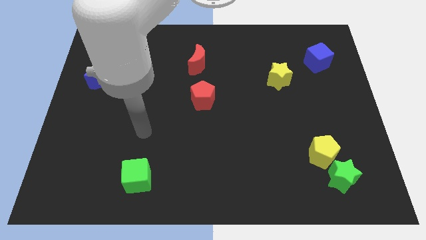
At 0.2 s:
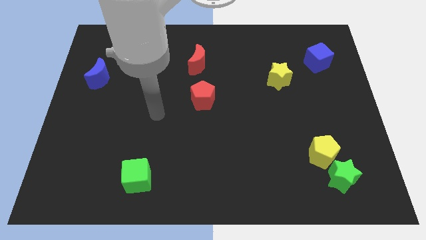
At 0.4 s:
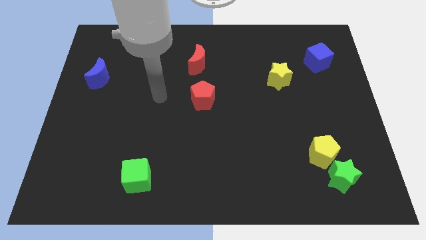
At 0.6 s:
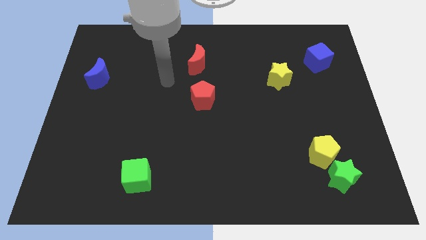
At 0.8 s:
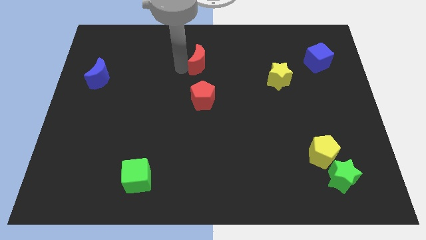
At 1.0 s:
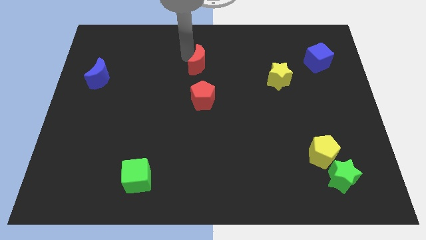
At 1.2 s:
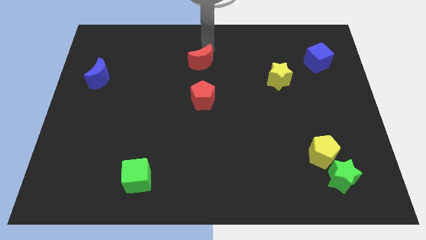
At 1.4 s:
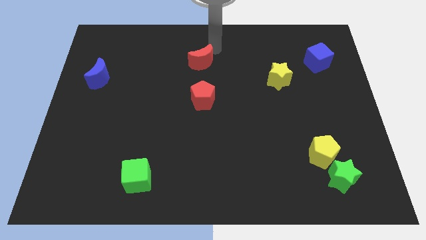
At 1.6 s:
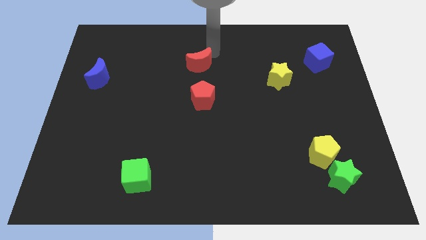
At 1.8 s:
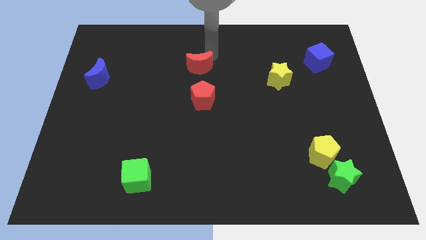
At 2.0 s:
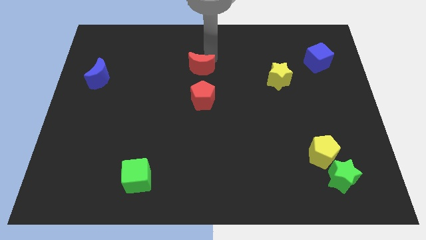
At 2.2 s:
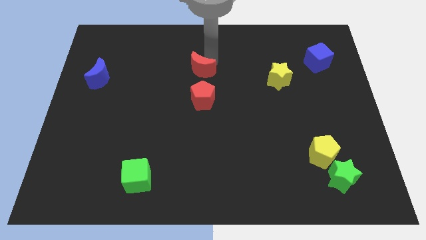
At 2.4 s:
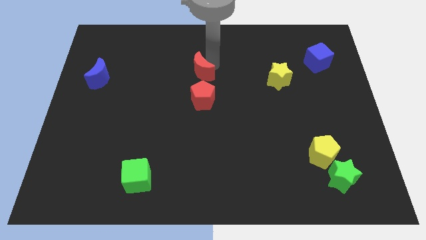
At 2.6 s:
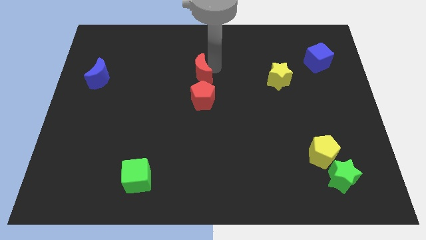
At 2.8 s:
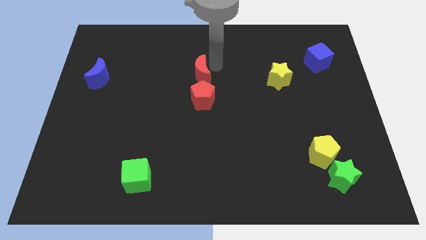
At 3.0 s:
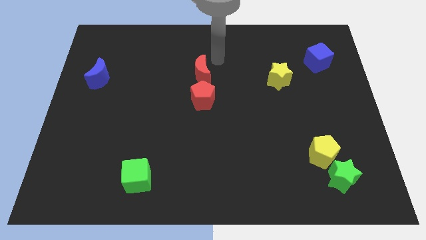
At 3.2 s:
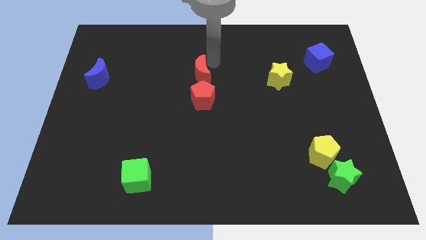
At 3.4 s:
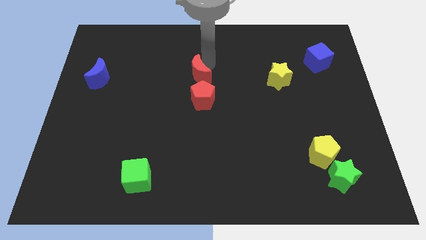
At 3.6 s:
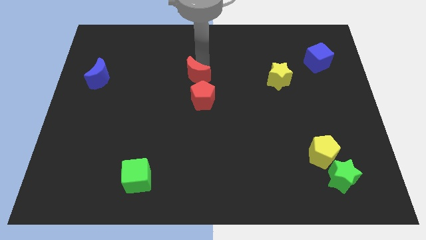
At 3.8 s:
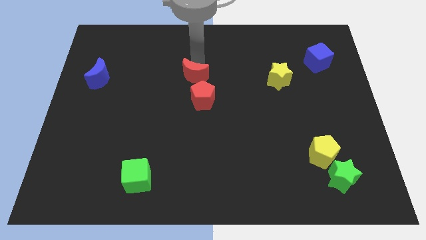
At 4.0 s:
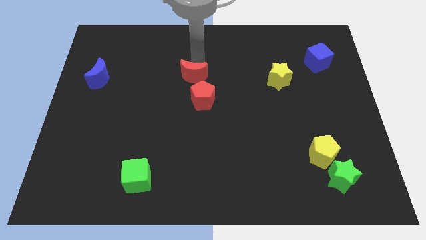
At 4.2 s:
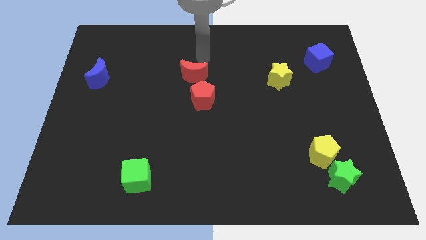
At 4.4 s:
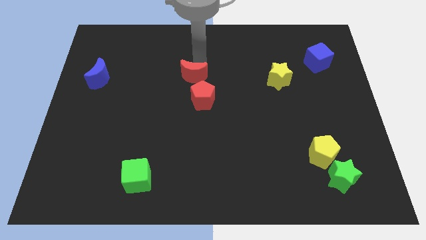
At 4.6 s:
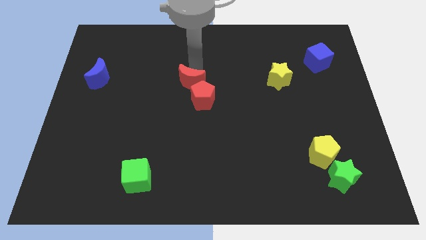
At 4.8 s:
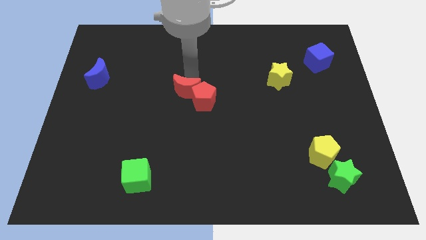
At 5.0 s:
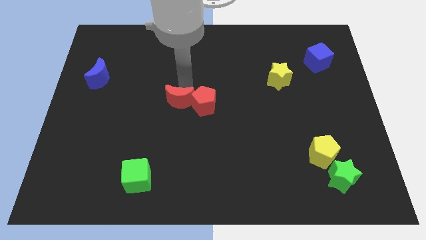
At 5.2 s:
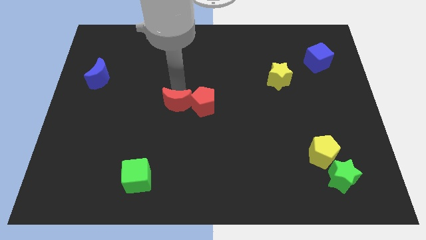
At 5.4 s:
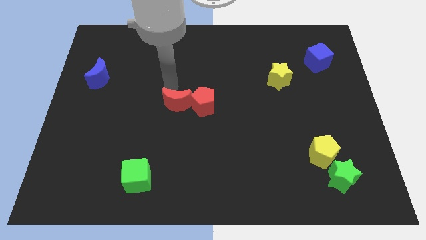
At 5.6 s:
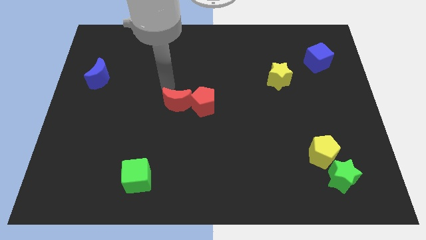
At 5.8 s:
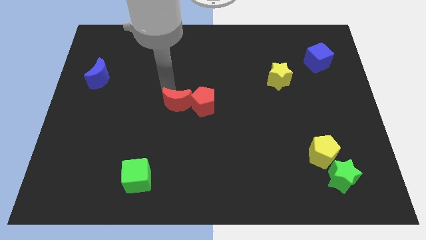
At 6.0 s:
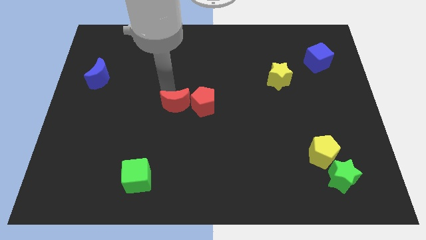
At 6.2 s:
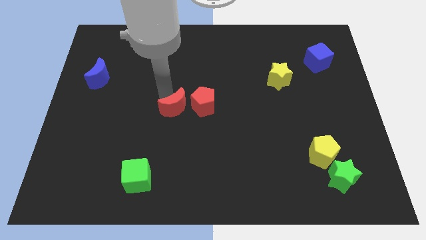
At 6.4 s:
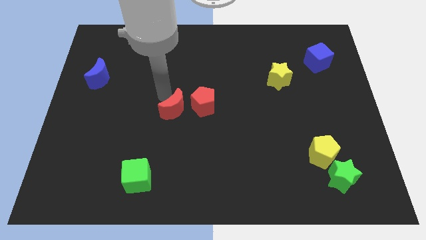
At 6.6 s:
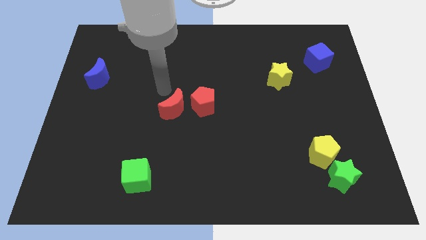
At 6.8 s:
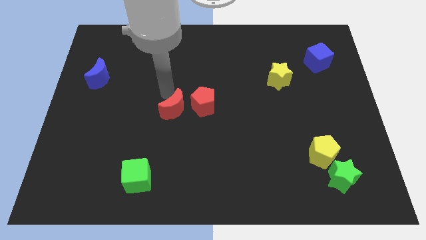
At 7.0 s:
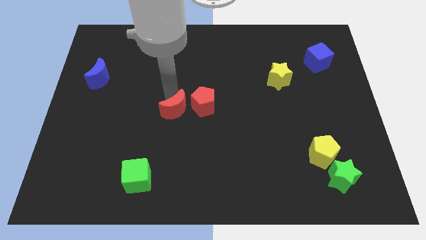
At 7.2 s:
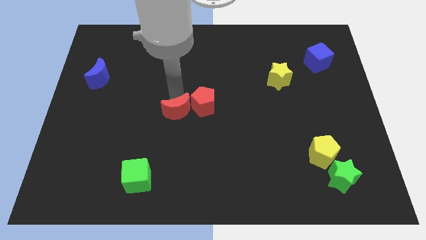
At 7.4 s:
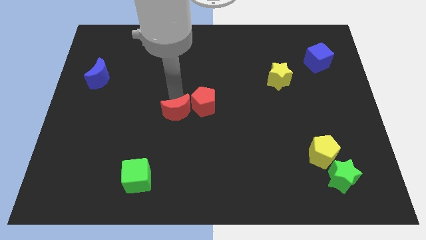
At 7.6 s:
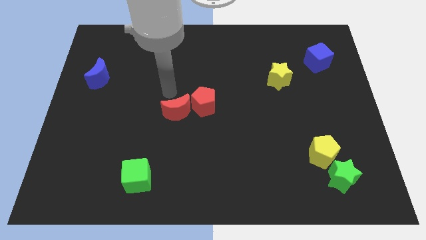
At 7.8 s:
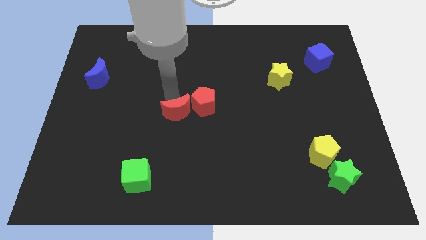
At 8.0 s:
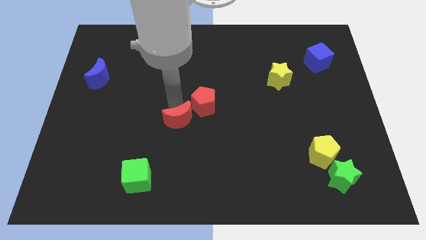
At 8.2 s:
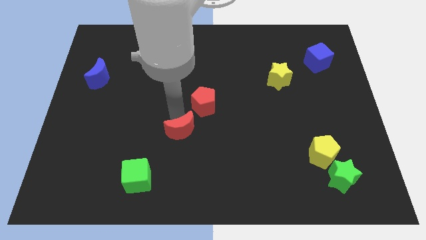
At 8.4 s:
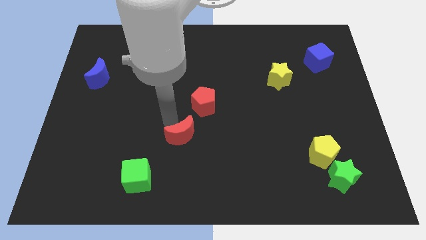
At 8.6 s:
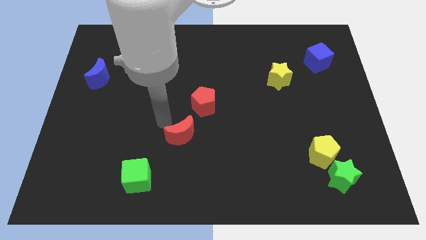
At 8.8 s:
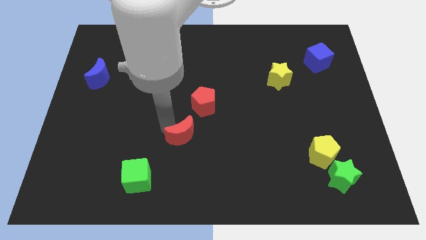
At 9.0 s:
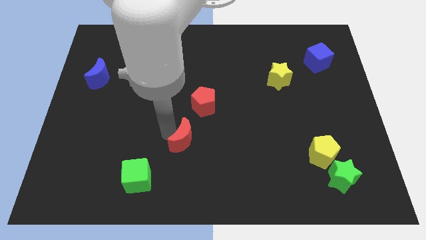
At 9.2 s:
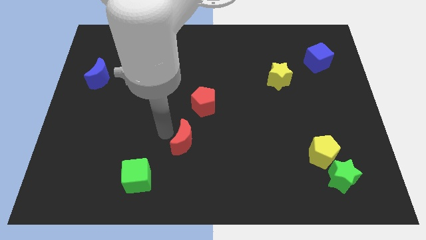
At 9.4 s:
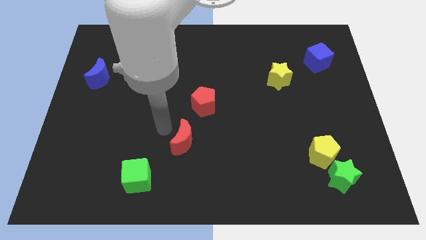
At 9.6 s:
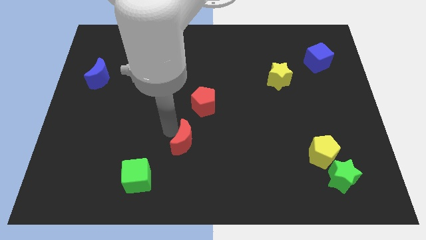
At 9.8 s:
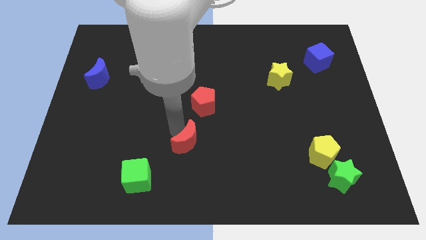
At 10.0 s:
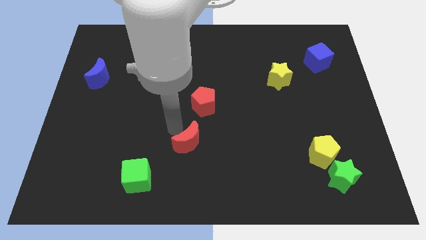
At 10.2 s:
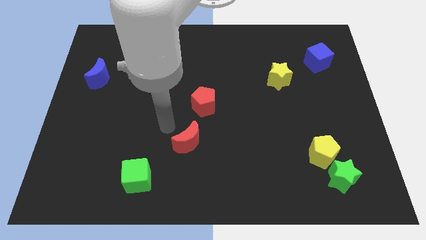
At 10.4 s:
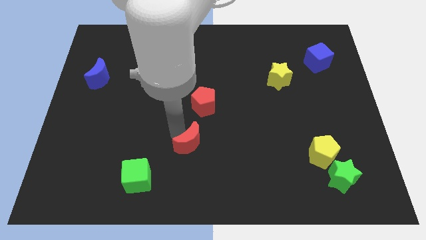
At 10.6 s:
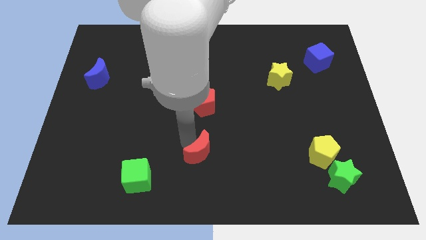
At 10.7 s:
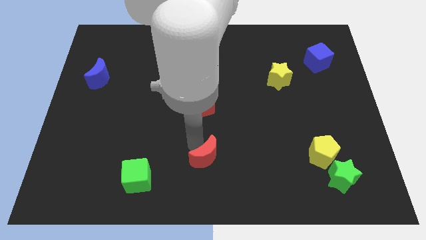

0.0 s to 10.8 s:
push the red moon to the bottom

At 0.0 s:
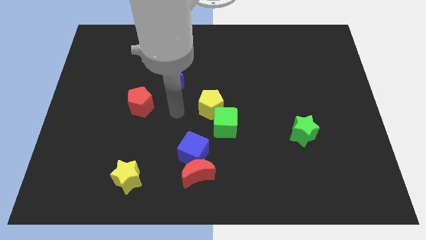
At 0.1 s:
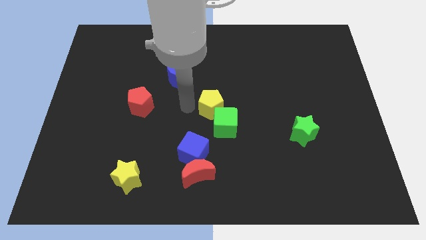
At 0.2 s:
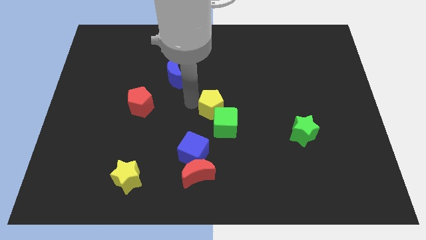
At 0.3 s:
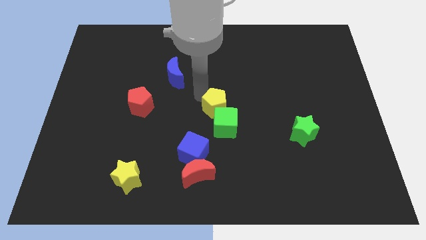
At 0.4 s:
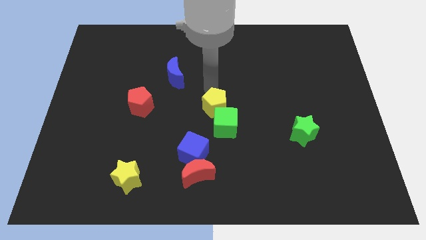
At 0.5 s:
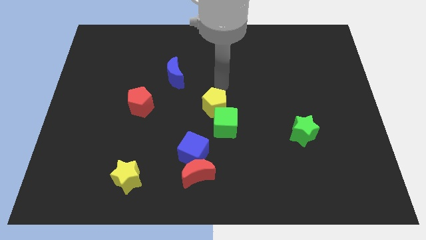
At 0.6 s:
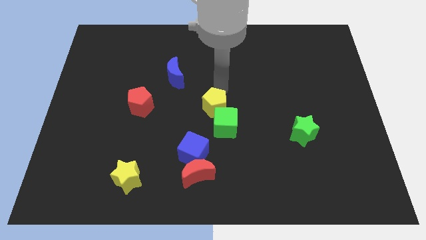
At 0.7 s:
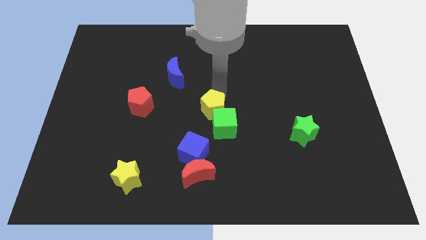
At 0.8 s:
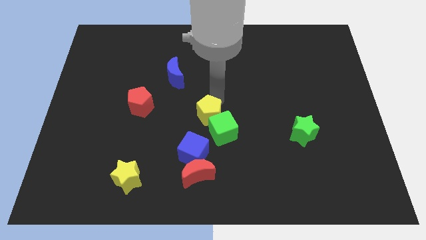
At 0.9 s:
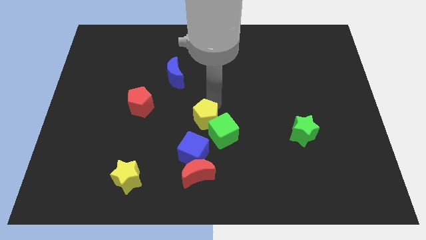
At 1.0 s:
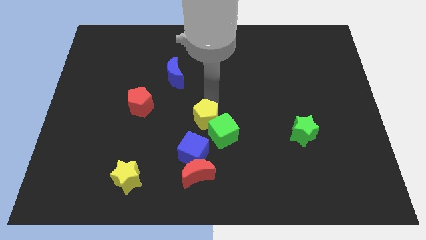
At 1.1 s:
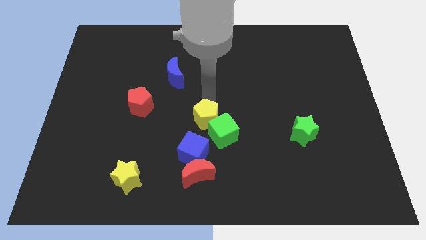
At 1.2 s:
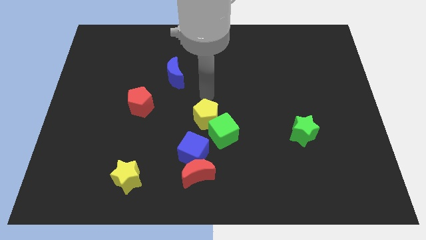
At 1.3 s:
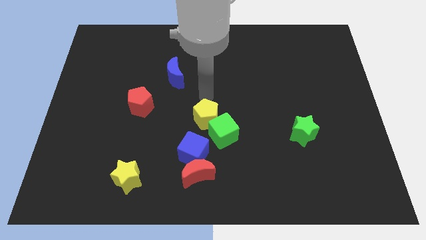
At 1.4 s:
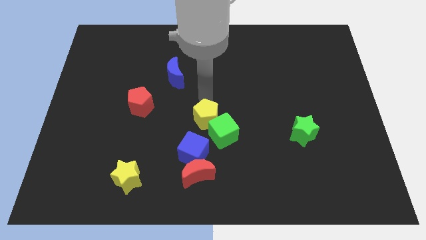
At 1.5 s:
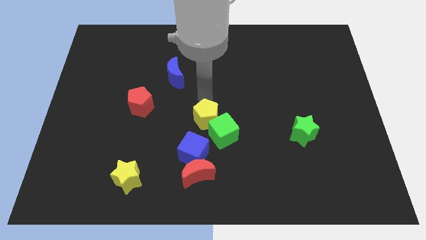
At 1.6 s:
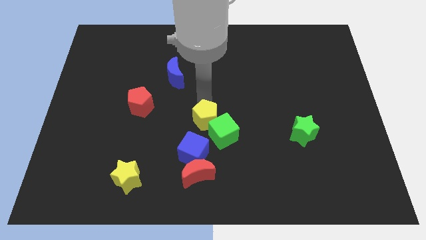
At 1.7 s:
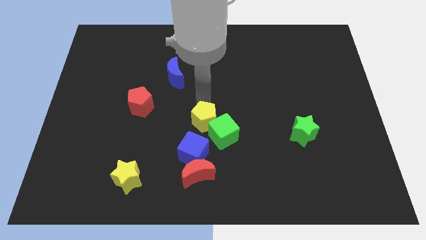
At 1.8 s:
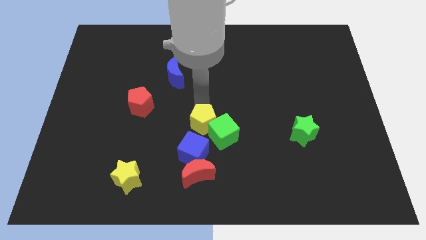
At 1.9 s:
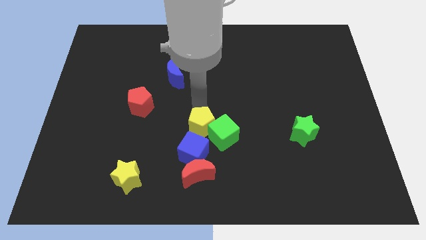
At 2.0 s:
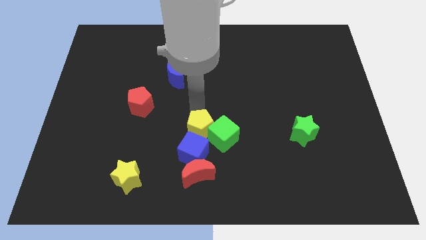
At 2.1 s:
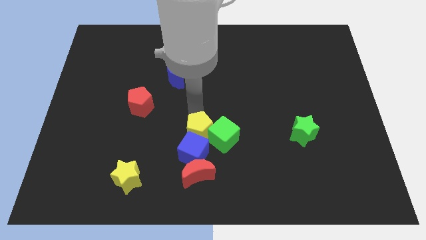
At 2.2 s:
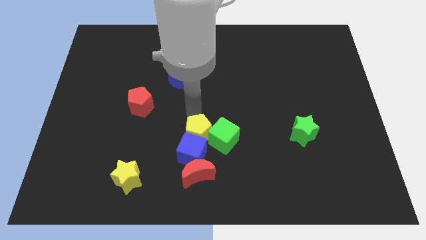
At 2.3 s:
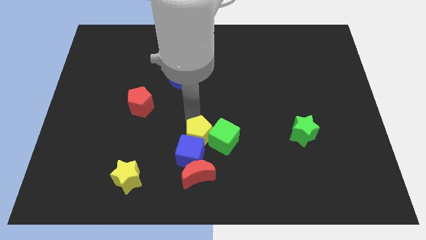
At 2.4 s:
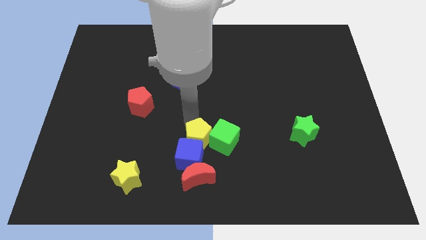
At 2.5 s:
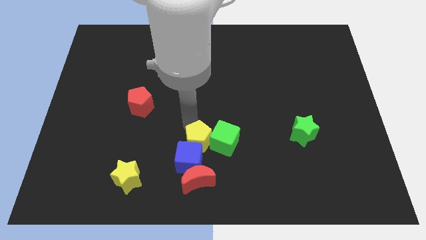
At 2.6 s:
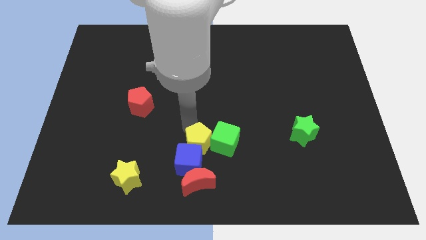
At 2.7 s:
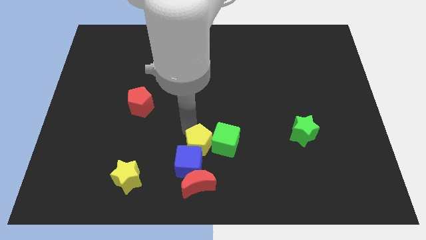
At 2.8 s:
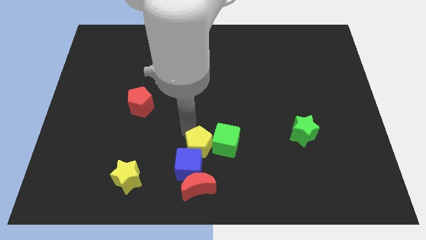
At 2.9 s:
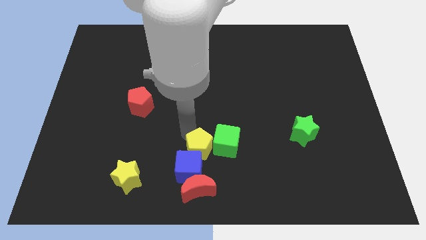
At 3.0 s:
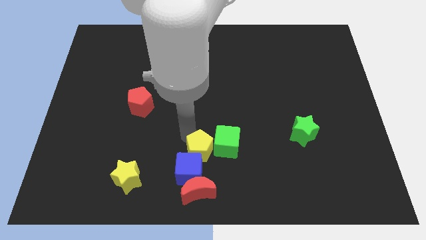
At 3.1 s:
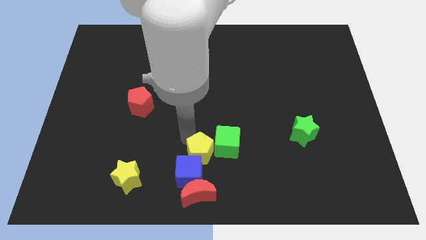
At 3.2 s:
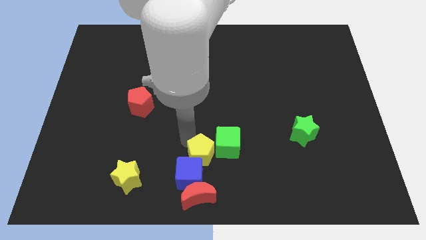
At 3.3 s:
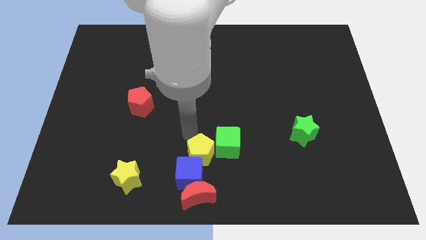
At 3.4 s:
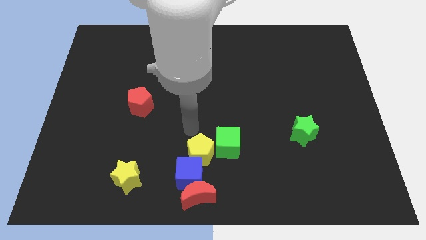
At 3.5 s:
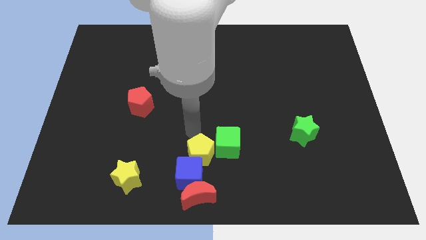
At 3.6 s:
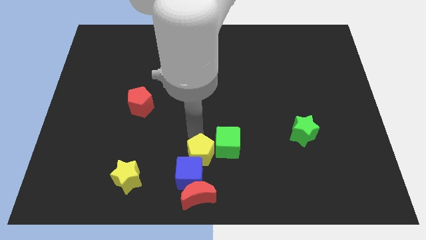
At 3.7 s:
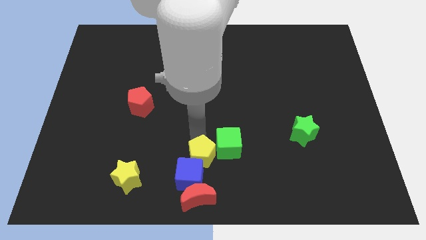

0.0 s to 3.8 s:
move the yellow pentagon to the bottom side
